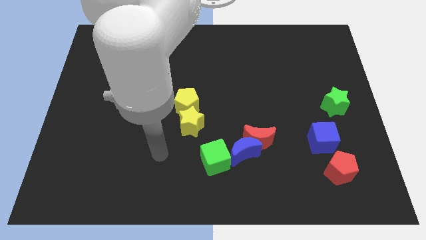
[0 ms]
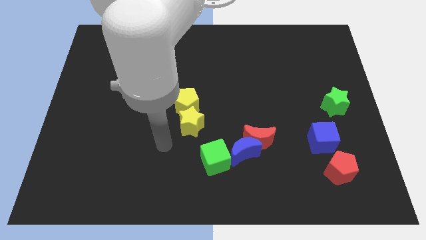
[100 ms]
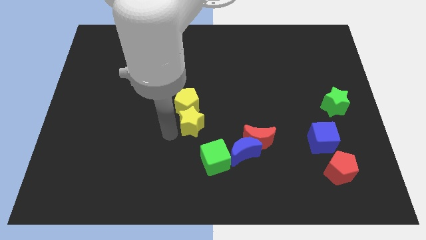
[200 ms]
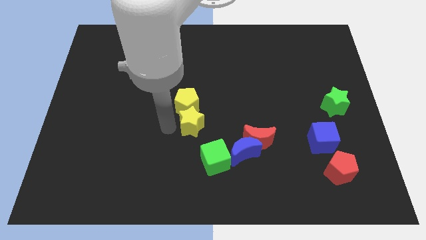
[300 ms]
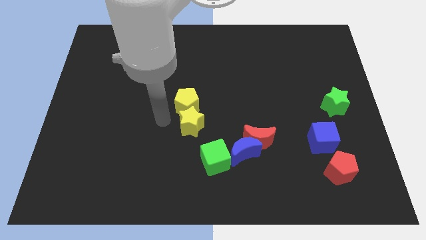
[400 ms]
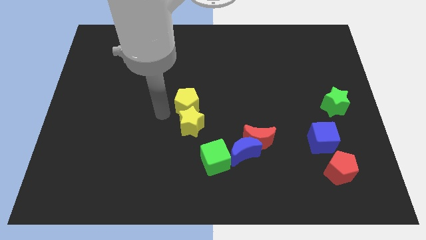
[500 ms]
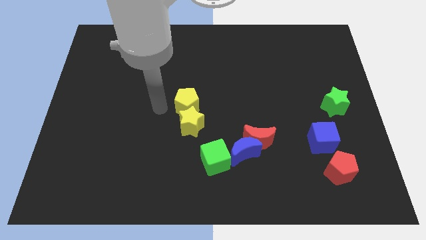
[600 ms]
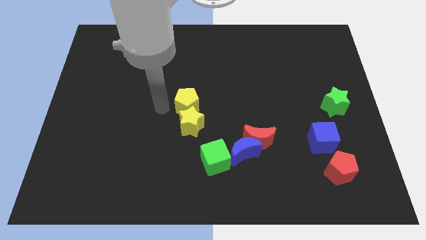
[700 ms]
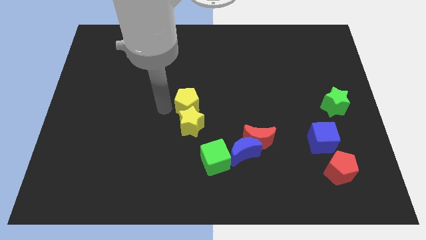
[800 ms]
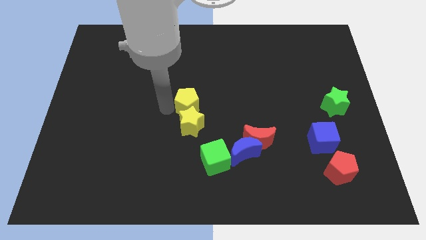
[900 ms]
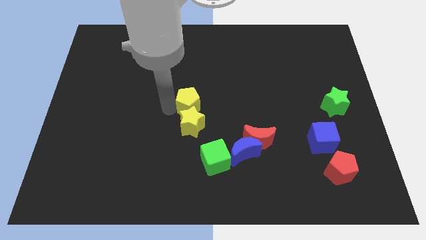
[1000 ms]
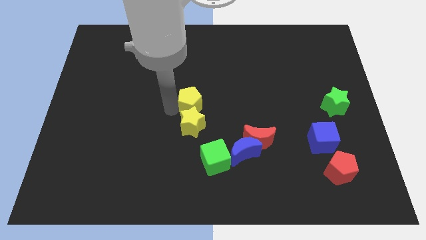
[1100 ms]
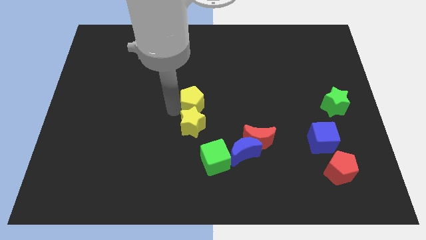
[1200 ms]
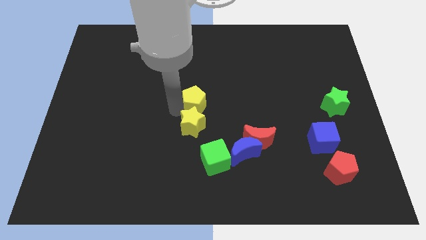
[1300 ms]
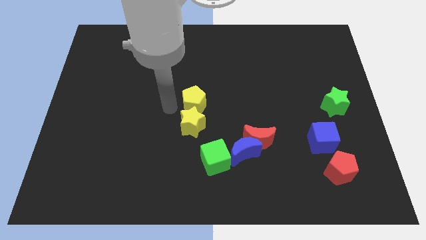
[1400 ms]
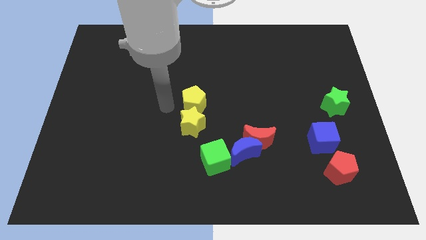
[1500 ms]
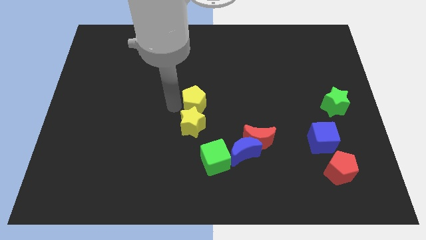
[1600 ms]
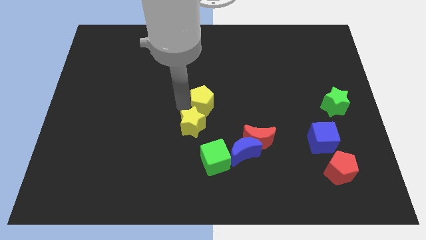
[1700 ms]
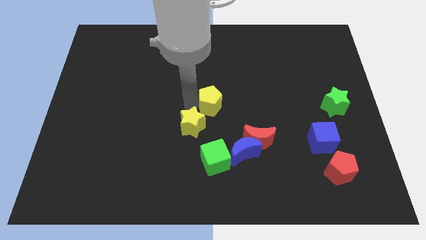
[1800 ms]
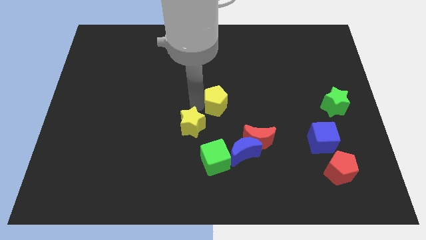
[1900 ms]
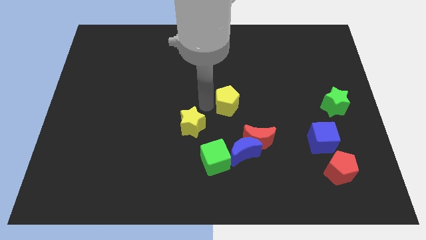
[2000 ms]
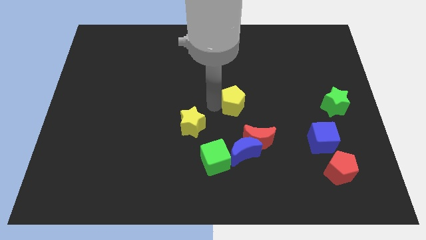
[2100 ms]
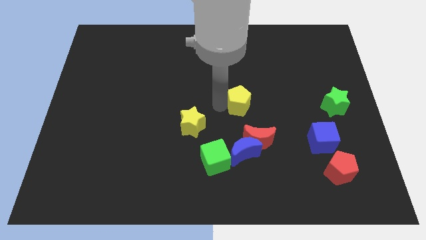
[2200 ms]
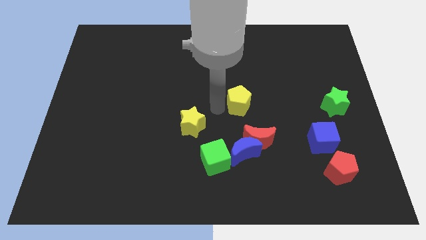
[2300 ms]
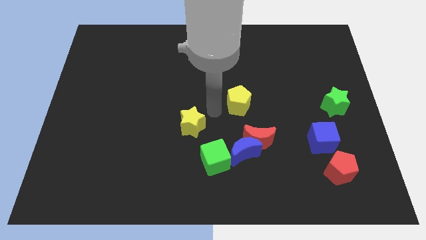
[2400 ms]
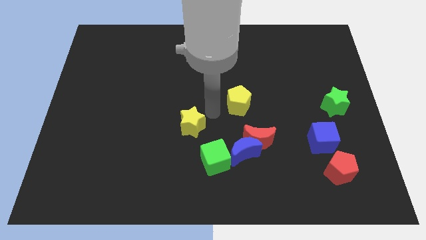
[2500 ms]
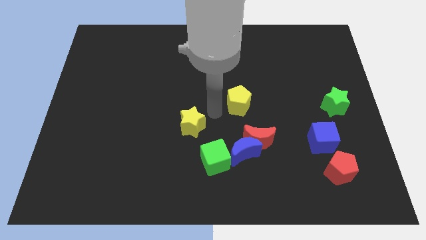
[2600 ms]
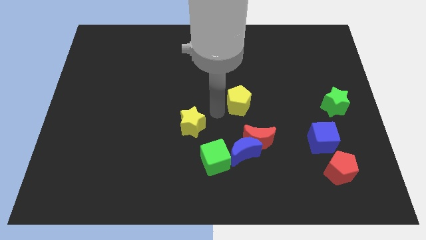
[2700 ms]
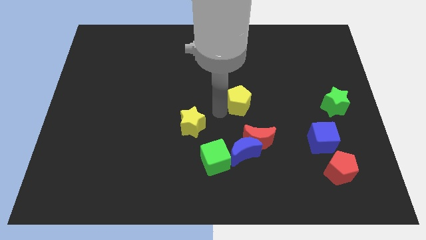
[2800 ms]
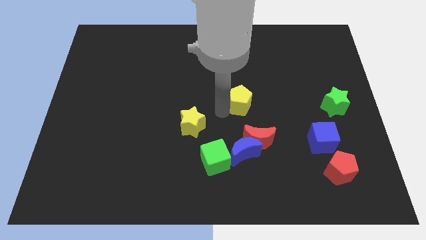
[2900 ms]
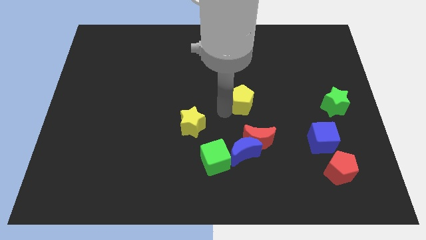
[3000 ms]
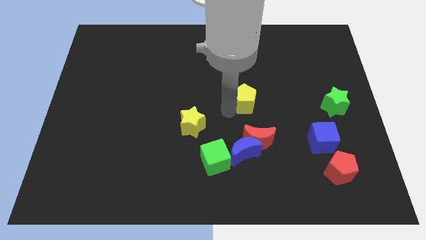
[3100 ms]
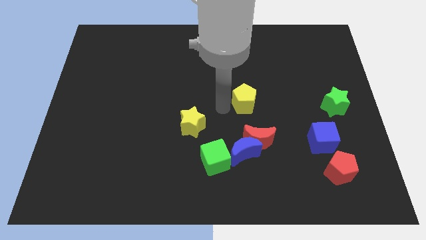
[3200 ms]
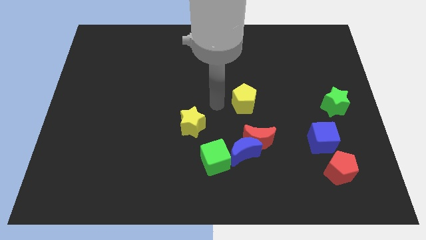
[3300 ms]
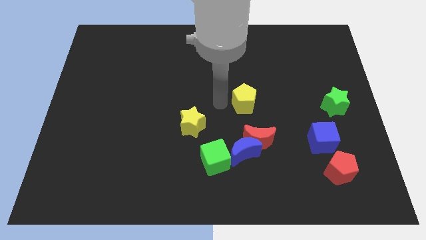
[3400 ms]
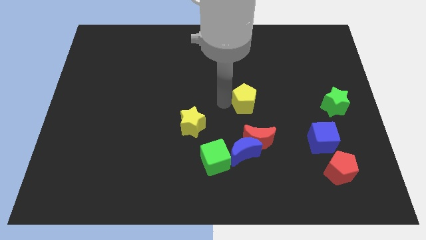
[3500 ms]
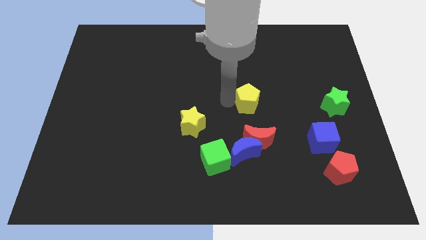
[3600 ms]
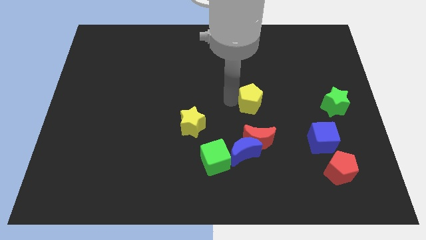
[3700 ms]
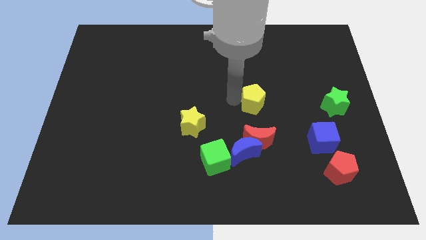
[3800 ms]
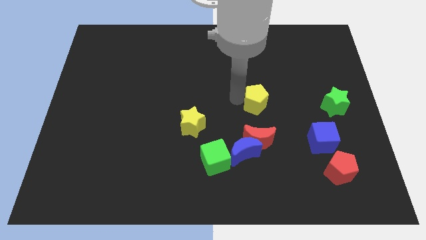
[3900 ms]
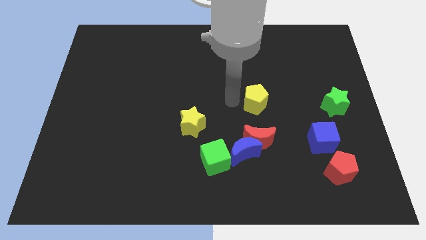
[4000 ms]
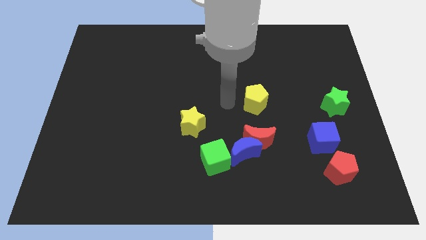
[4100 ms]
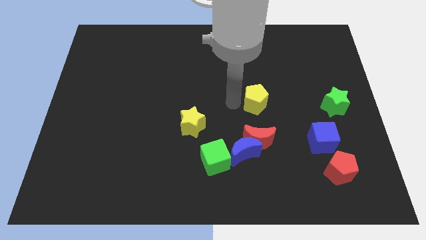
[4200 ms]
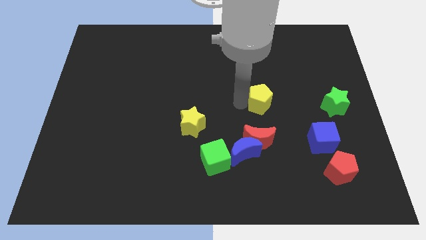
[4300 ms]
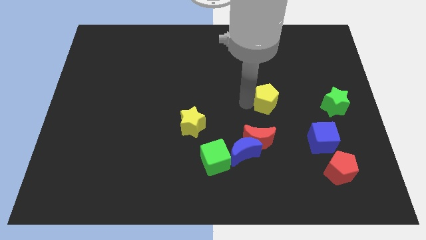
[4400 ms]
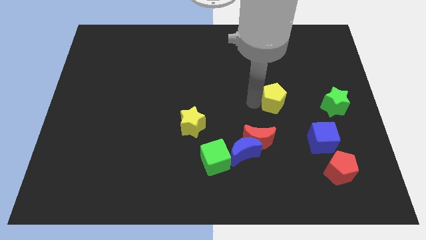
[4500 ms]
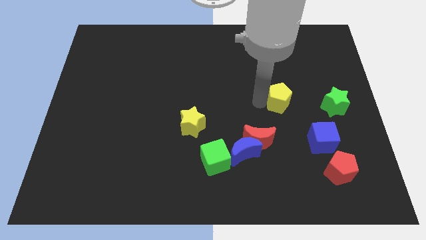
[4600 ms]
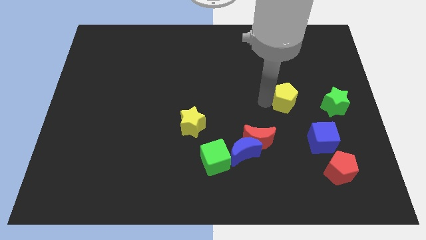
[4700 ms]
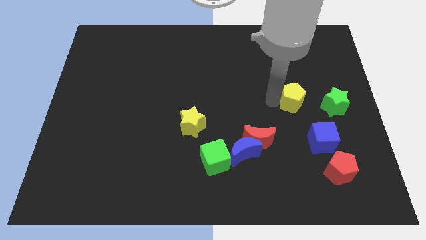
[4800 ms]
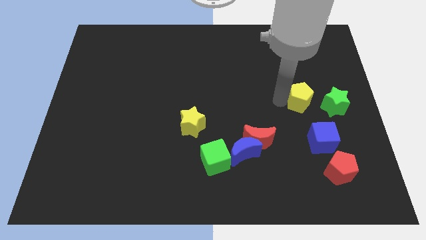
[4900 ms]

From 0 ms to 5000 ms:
slide the yellow pentagon to the top side of the blue cube

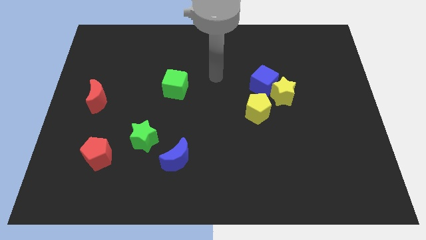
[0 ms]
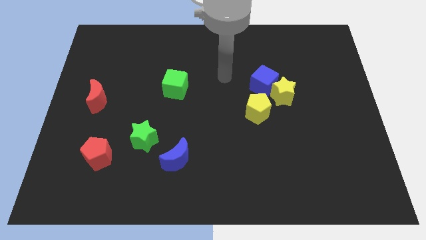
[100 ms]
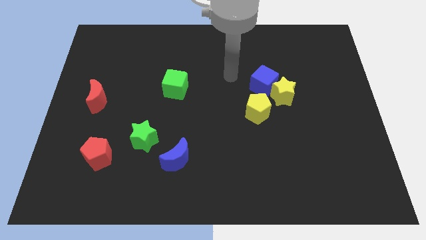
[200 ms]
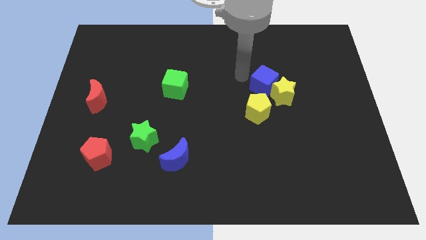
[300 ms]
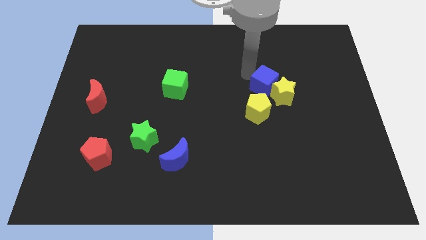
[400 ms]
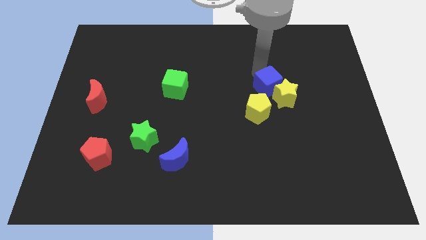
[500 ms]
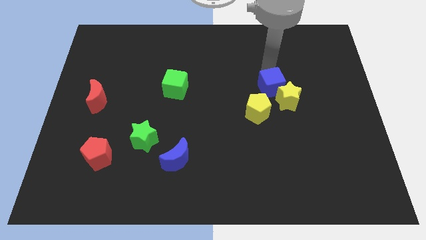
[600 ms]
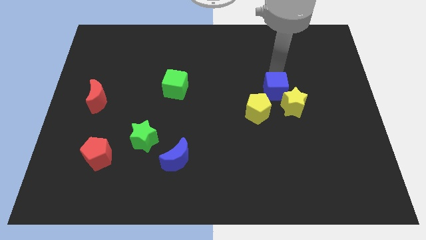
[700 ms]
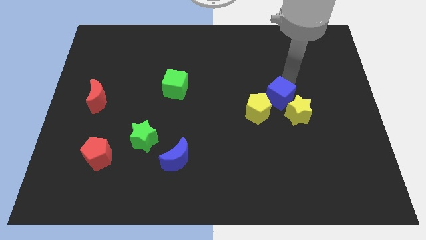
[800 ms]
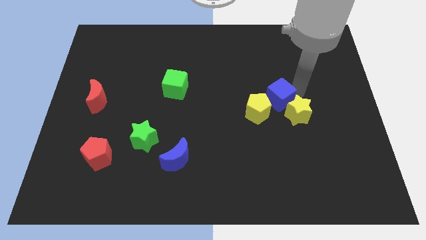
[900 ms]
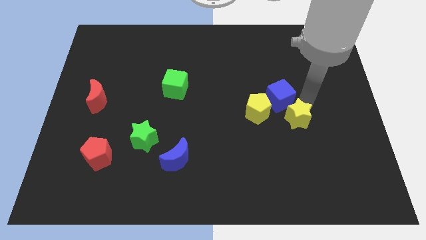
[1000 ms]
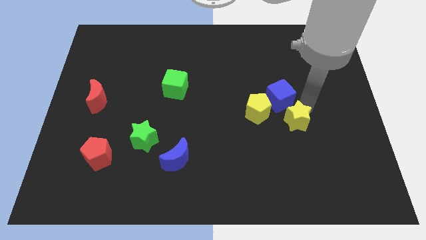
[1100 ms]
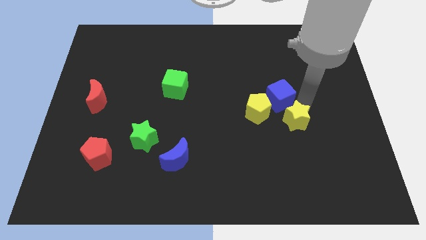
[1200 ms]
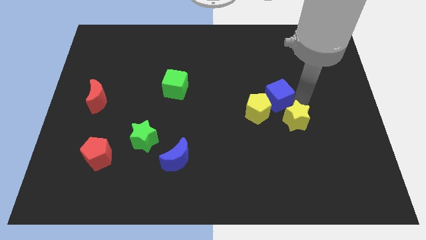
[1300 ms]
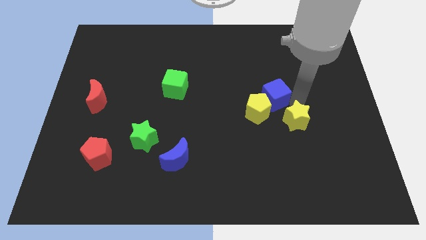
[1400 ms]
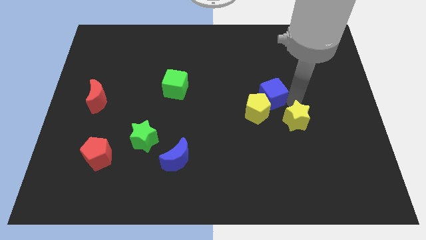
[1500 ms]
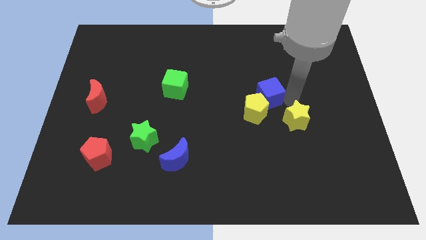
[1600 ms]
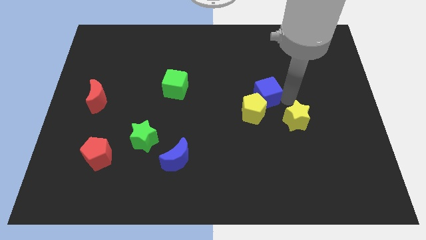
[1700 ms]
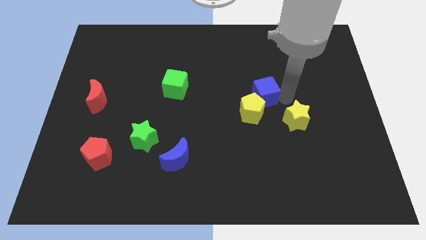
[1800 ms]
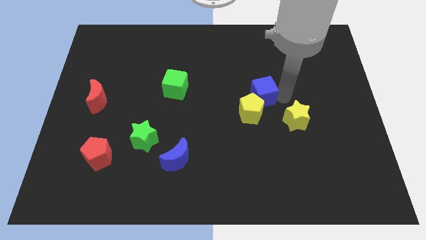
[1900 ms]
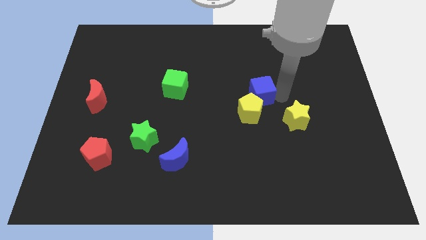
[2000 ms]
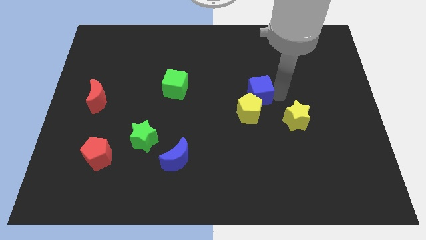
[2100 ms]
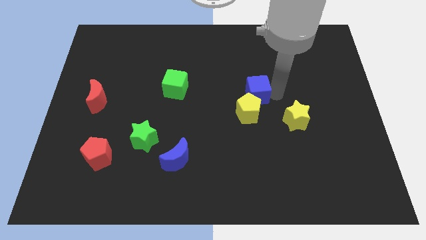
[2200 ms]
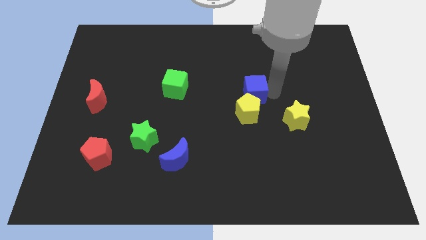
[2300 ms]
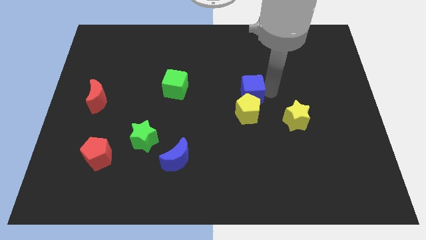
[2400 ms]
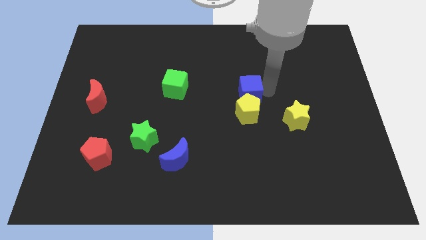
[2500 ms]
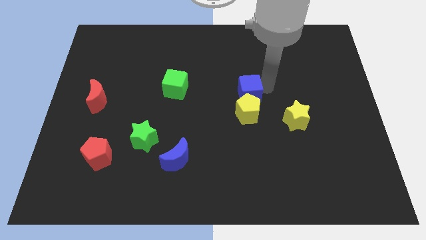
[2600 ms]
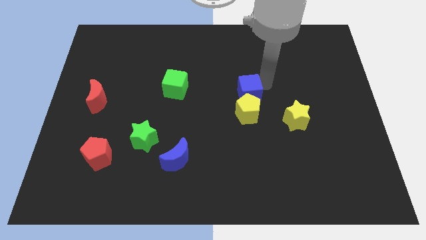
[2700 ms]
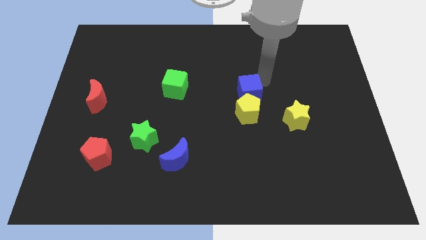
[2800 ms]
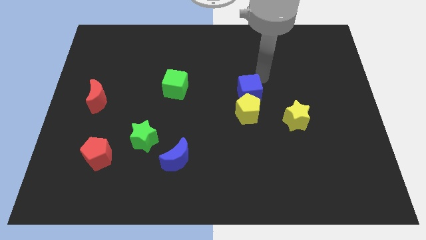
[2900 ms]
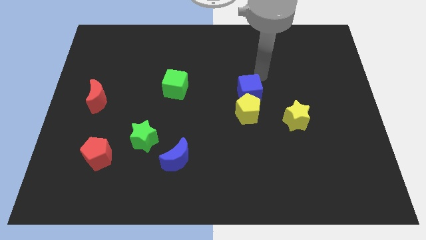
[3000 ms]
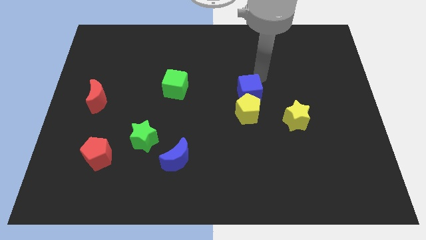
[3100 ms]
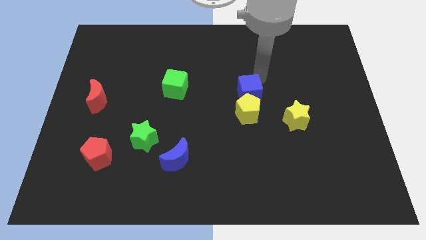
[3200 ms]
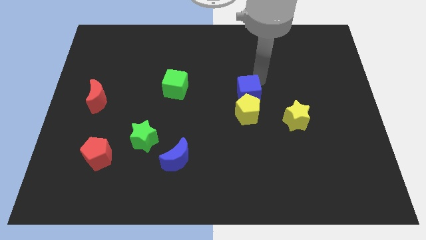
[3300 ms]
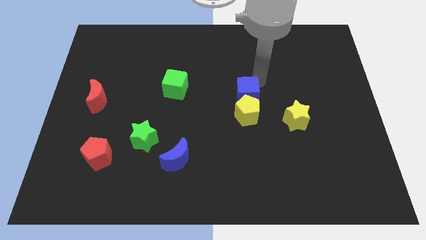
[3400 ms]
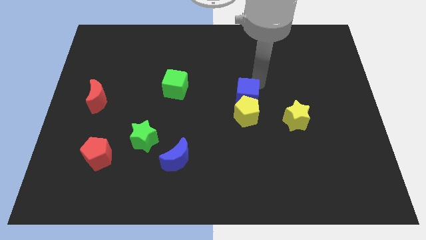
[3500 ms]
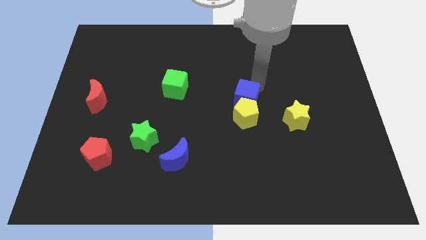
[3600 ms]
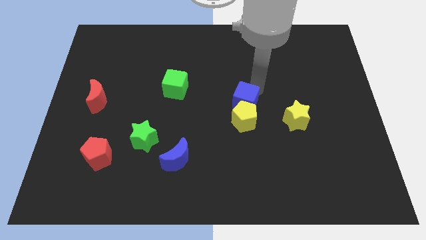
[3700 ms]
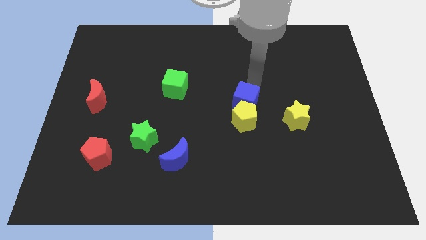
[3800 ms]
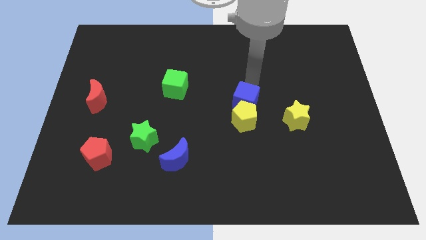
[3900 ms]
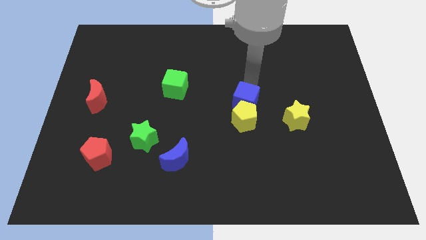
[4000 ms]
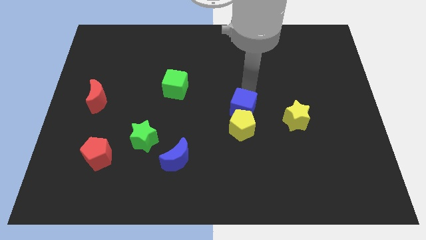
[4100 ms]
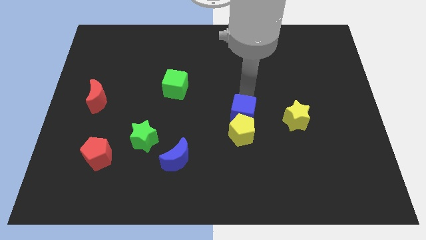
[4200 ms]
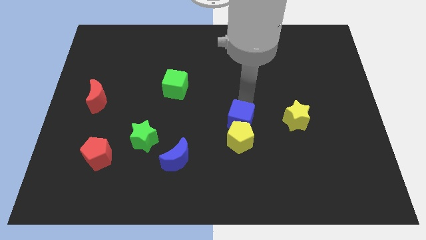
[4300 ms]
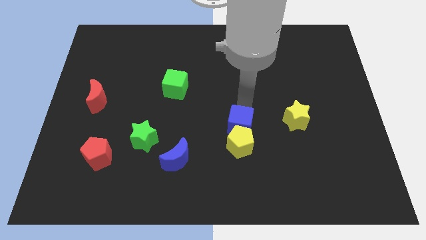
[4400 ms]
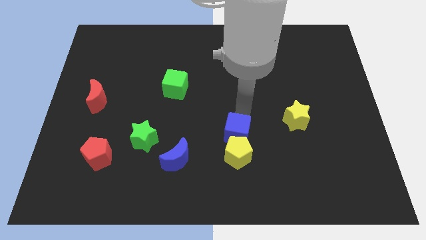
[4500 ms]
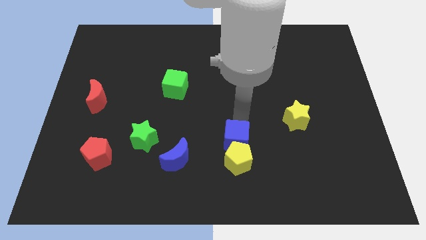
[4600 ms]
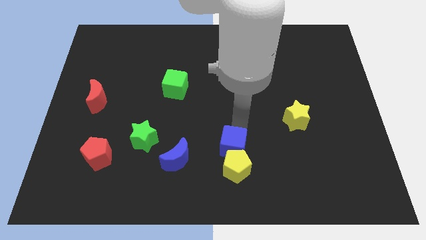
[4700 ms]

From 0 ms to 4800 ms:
move the blue cube to the right of the blue moon
